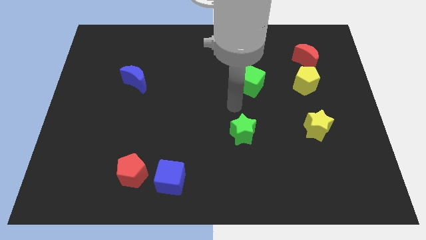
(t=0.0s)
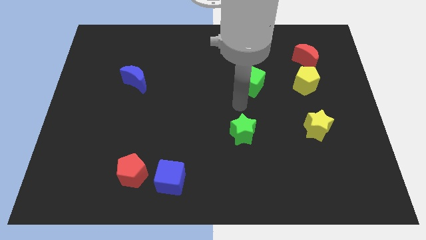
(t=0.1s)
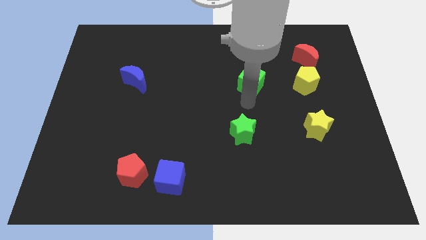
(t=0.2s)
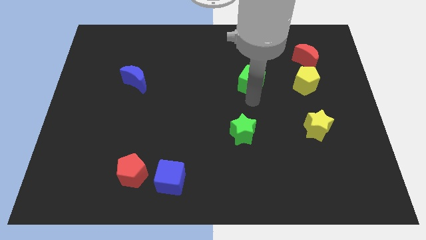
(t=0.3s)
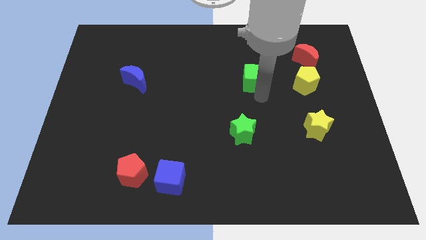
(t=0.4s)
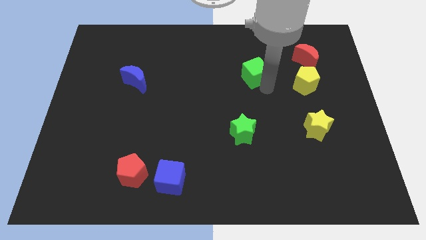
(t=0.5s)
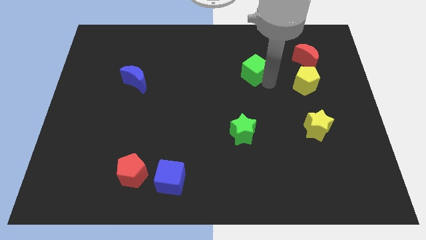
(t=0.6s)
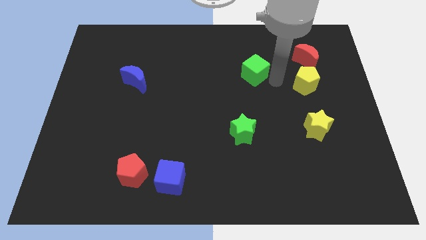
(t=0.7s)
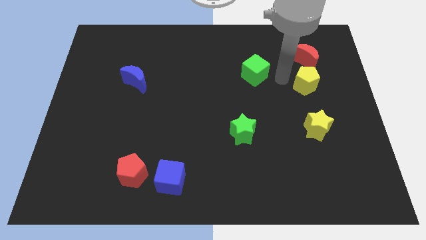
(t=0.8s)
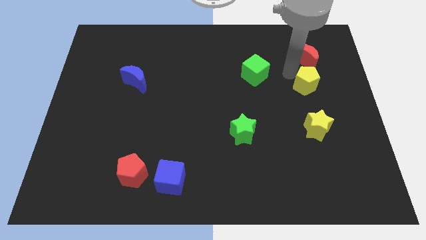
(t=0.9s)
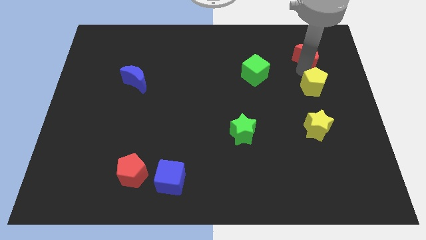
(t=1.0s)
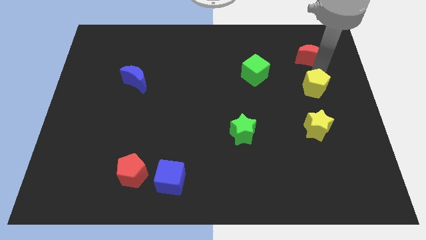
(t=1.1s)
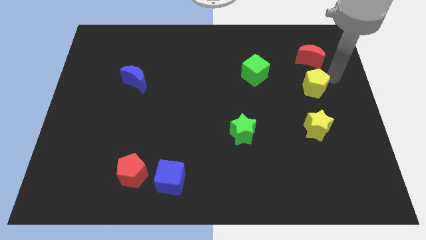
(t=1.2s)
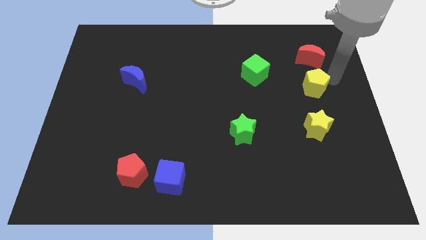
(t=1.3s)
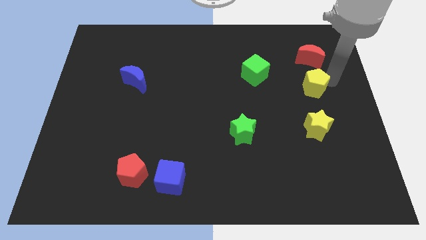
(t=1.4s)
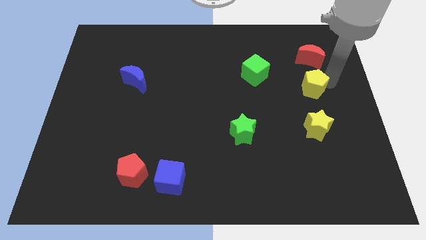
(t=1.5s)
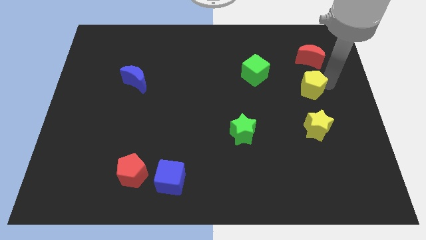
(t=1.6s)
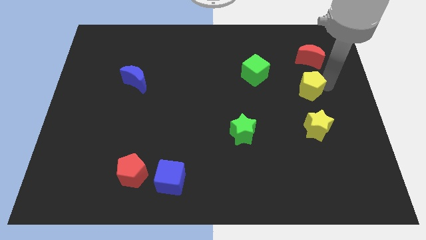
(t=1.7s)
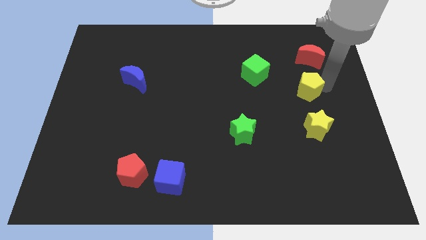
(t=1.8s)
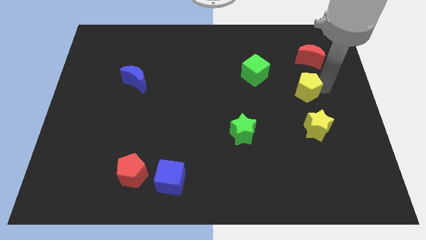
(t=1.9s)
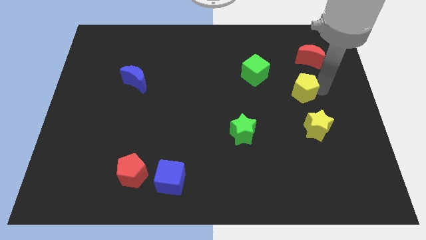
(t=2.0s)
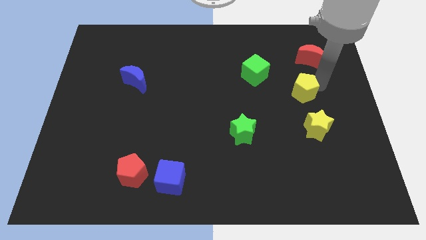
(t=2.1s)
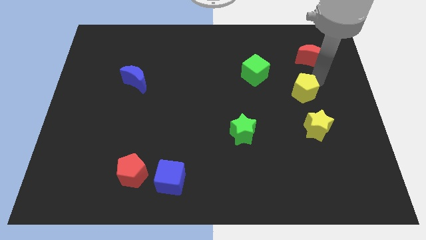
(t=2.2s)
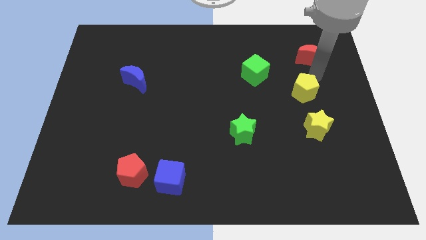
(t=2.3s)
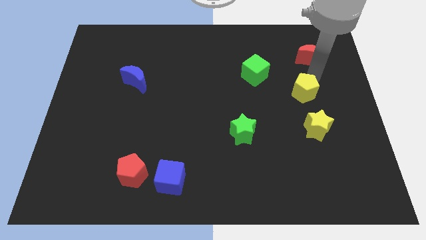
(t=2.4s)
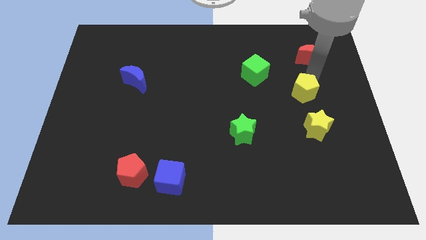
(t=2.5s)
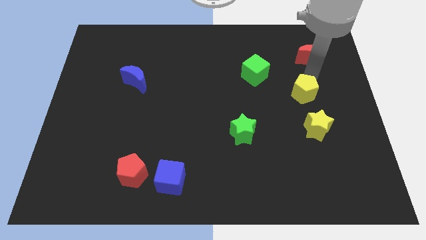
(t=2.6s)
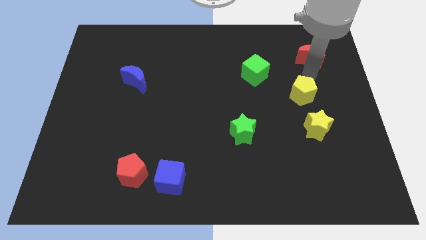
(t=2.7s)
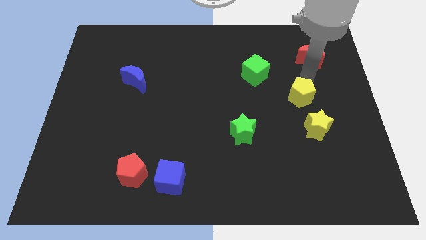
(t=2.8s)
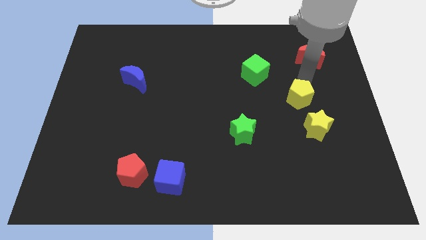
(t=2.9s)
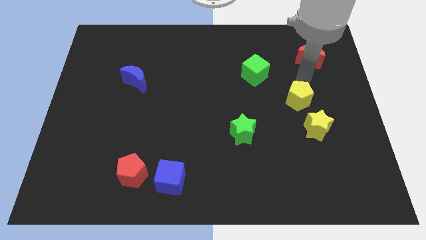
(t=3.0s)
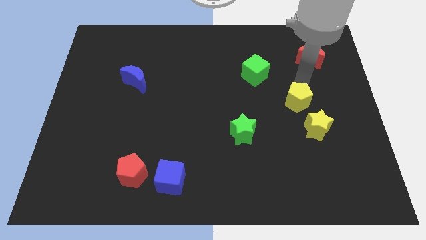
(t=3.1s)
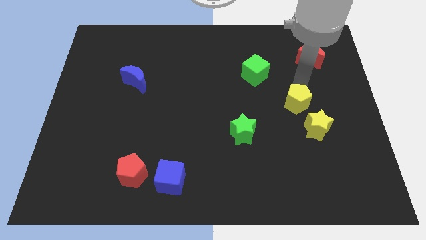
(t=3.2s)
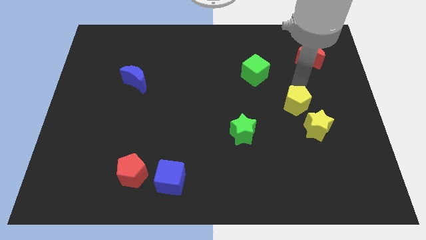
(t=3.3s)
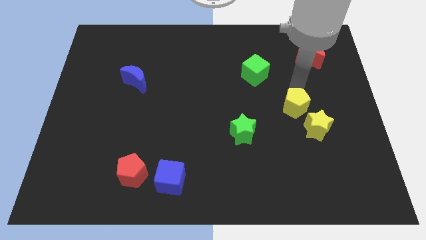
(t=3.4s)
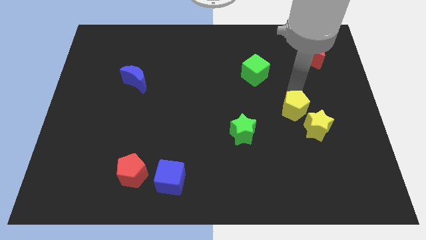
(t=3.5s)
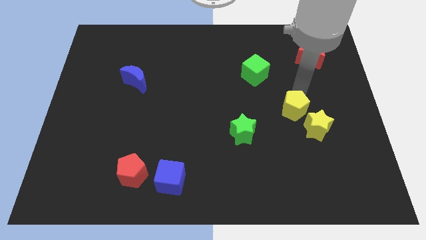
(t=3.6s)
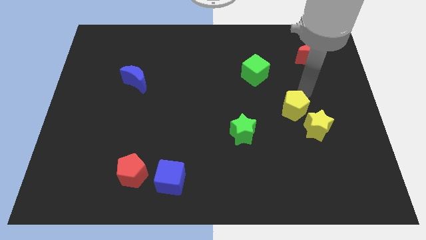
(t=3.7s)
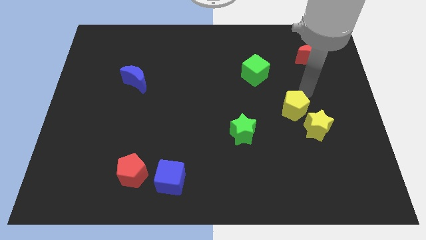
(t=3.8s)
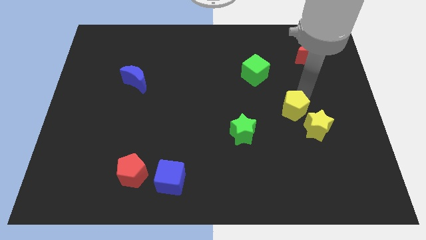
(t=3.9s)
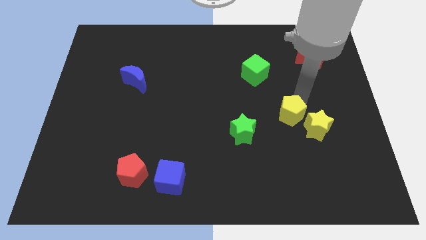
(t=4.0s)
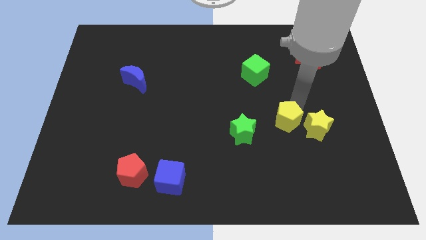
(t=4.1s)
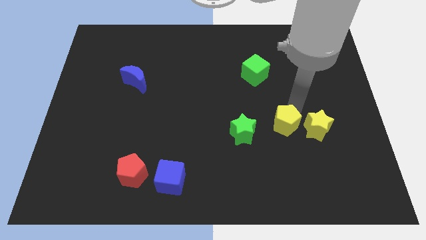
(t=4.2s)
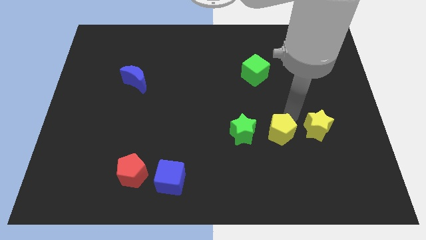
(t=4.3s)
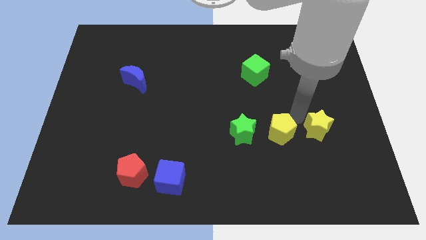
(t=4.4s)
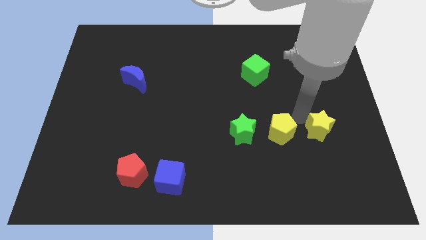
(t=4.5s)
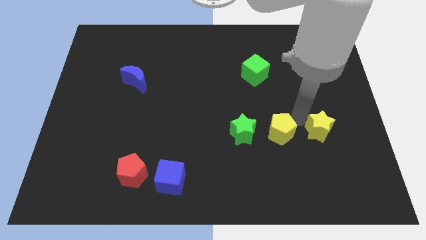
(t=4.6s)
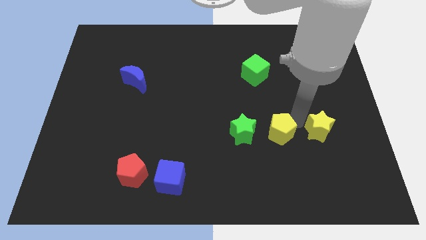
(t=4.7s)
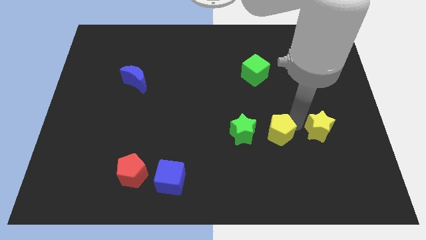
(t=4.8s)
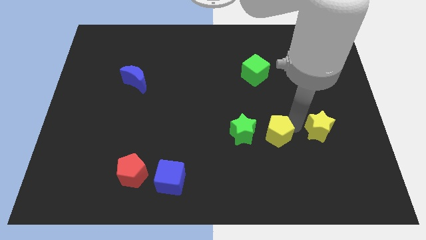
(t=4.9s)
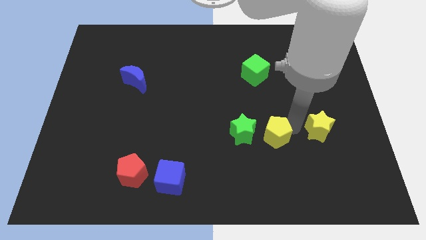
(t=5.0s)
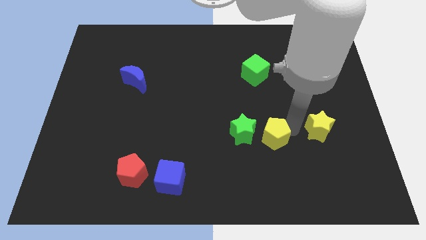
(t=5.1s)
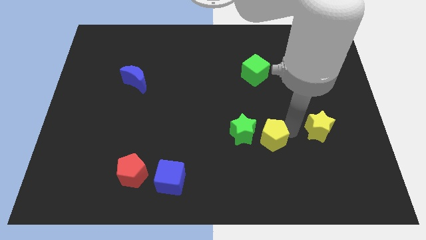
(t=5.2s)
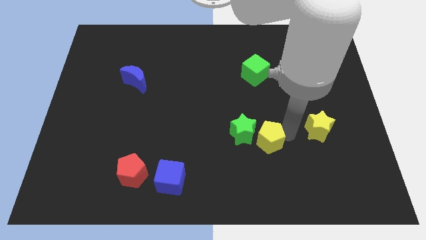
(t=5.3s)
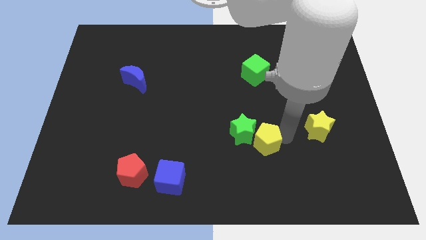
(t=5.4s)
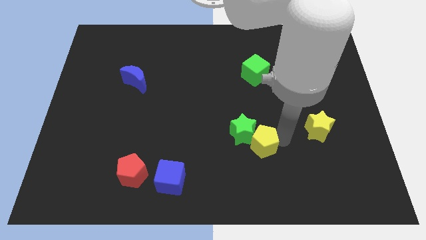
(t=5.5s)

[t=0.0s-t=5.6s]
slide the yellow pentagon down and to the left

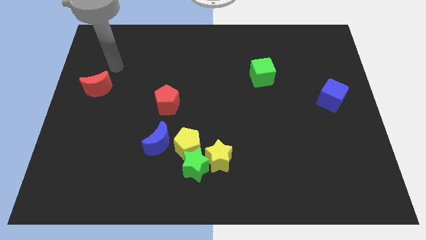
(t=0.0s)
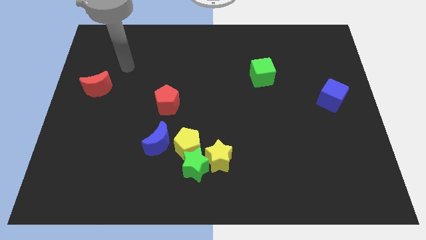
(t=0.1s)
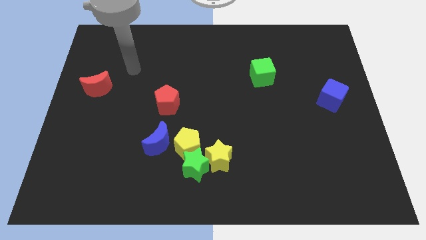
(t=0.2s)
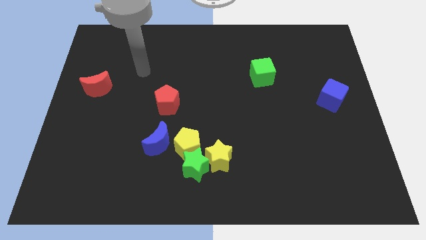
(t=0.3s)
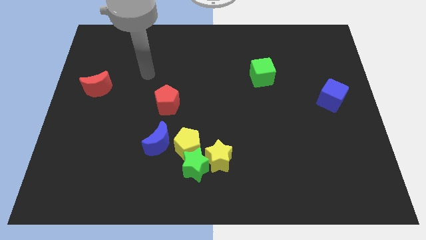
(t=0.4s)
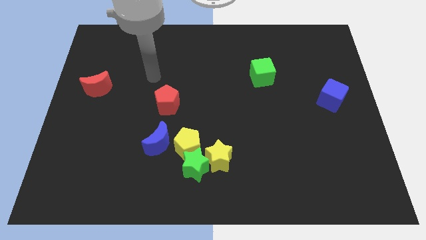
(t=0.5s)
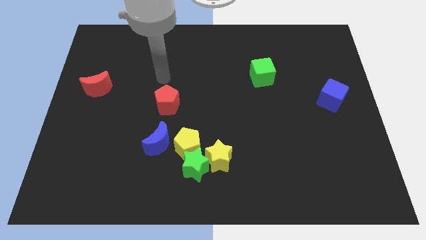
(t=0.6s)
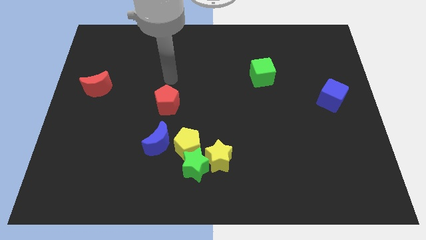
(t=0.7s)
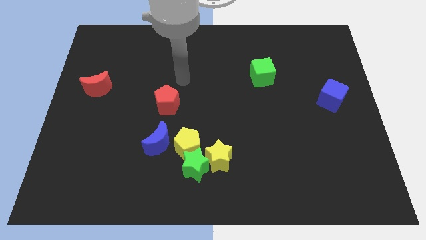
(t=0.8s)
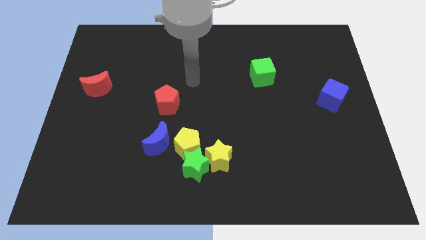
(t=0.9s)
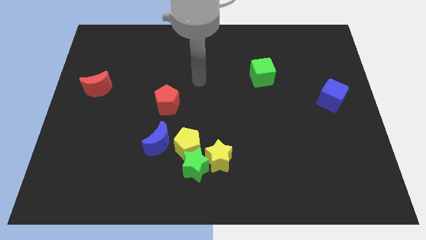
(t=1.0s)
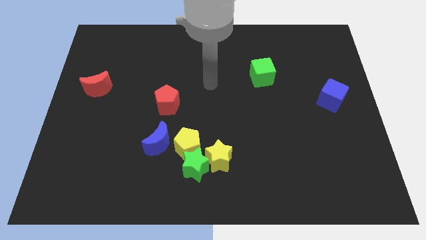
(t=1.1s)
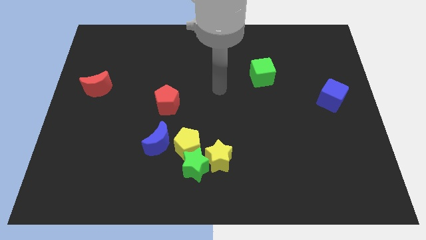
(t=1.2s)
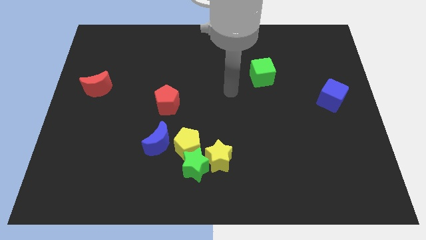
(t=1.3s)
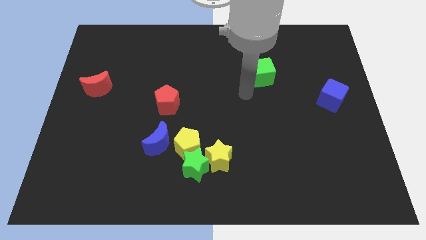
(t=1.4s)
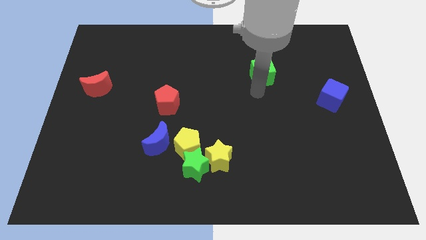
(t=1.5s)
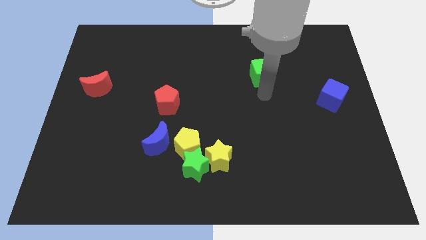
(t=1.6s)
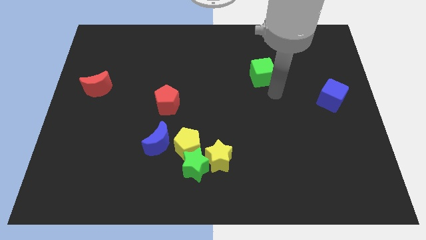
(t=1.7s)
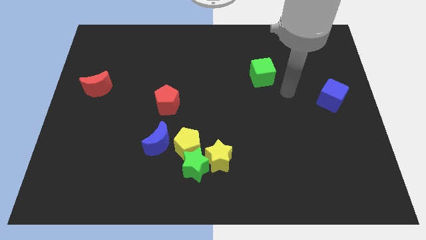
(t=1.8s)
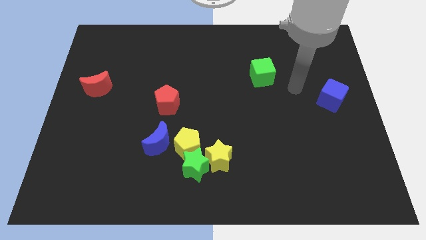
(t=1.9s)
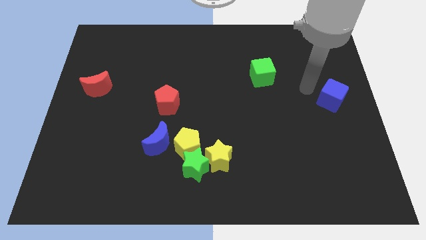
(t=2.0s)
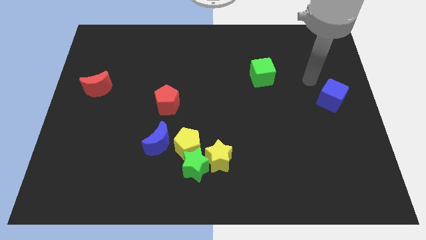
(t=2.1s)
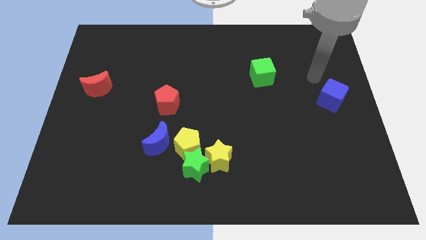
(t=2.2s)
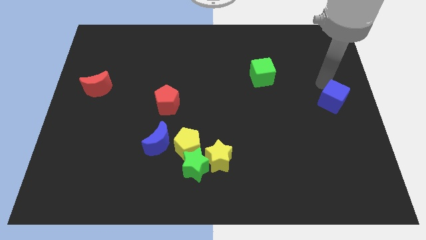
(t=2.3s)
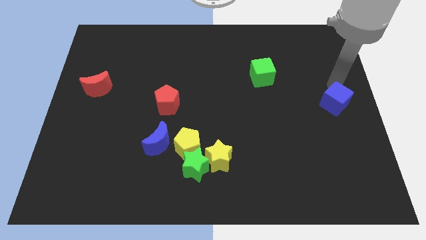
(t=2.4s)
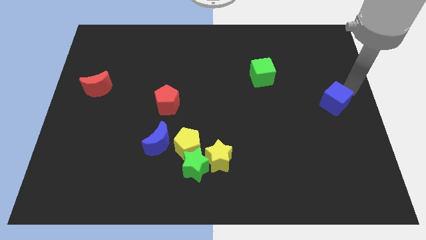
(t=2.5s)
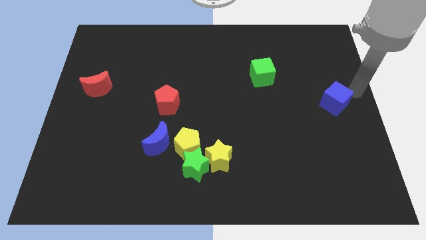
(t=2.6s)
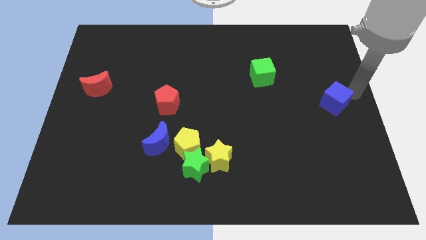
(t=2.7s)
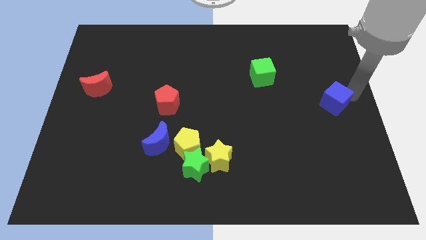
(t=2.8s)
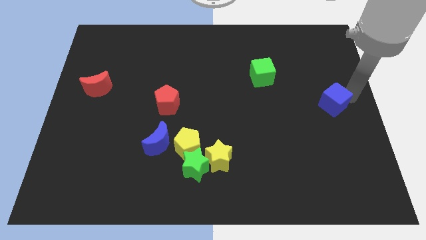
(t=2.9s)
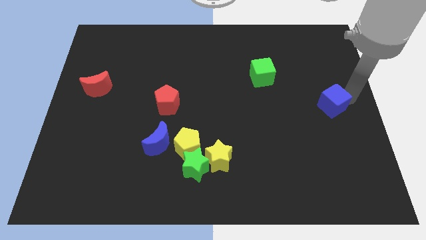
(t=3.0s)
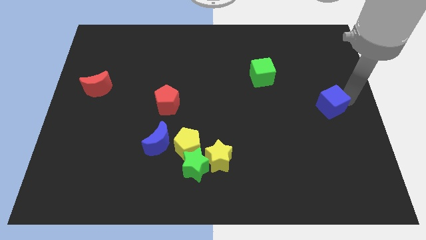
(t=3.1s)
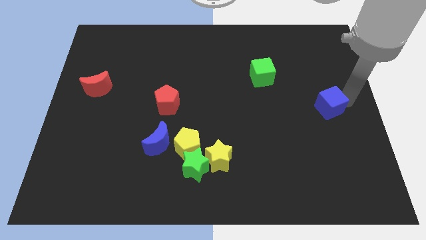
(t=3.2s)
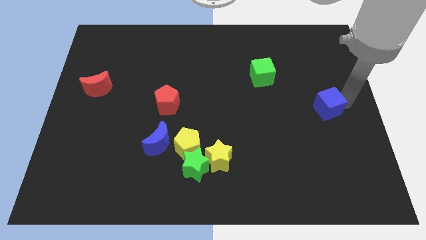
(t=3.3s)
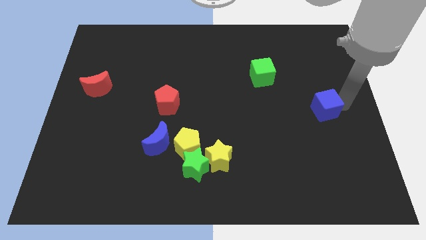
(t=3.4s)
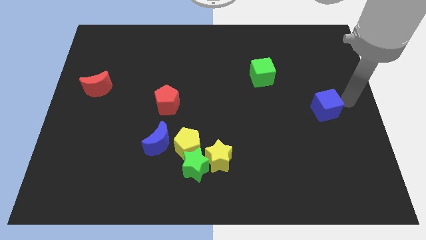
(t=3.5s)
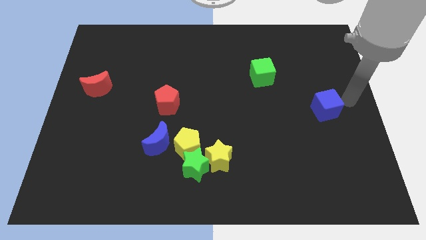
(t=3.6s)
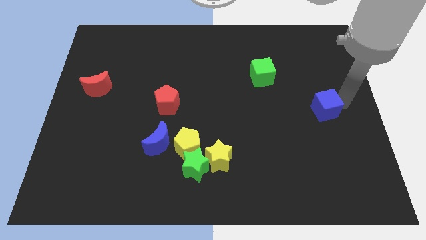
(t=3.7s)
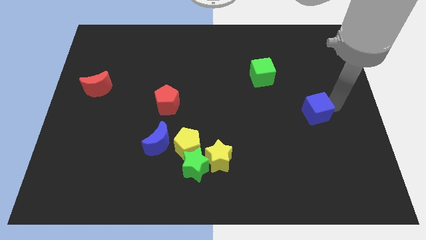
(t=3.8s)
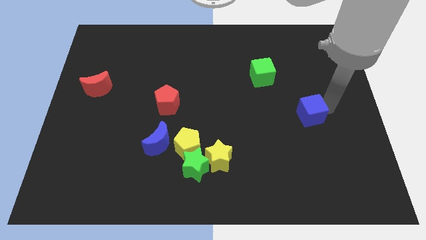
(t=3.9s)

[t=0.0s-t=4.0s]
slightly push the blue cube down and to the left diagonally
